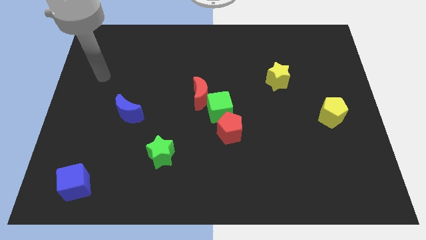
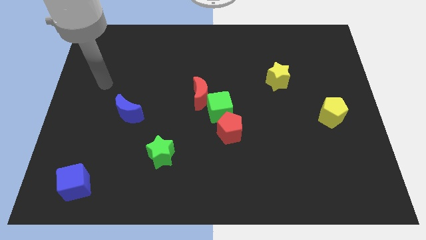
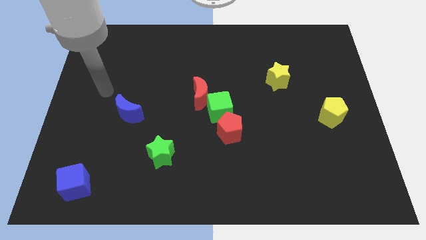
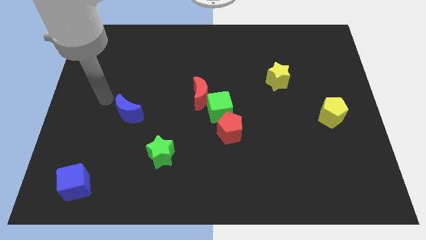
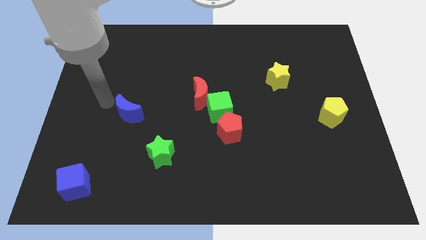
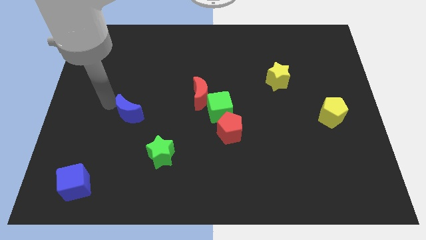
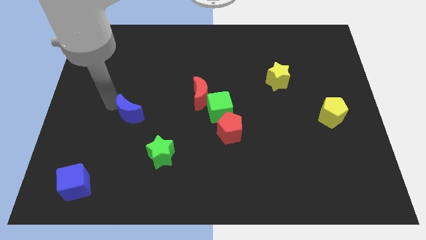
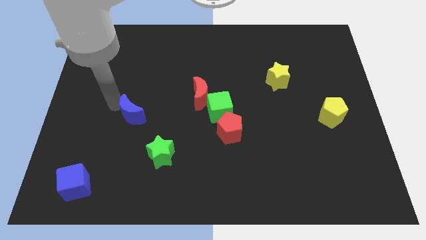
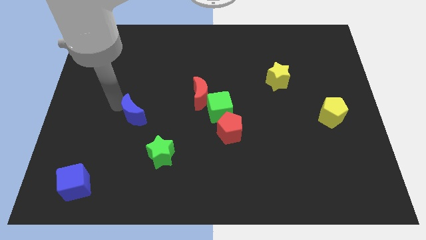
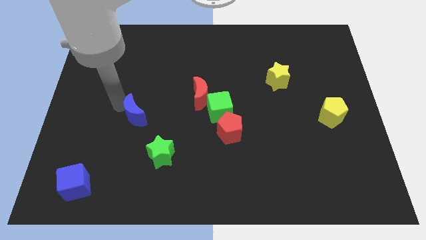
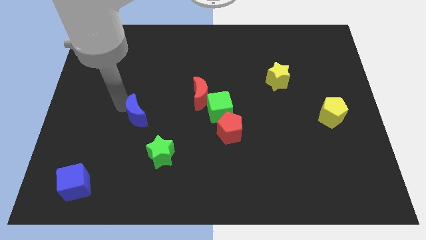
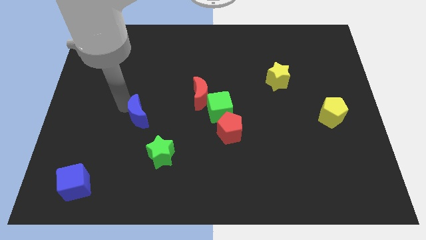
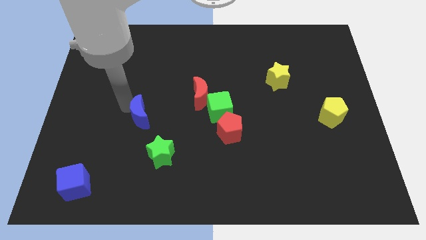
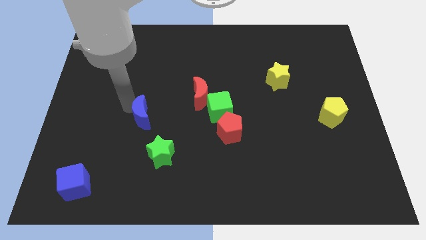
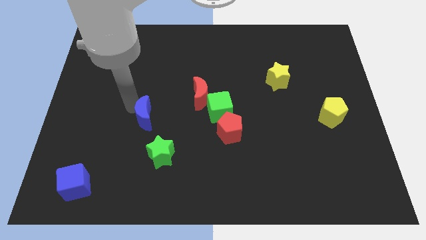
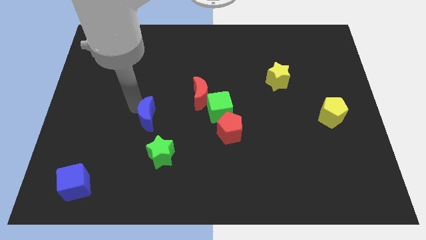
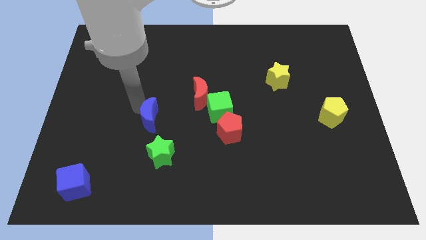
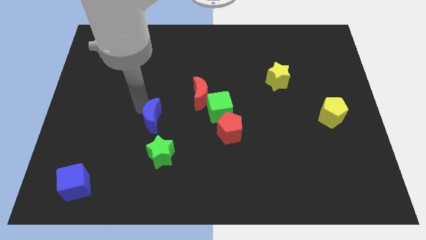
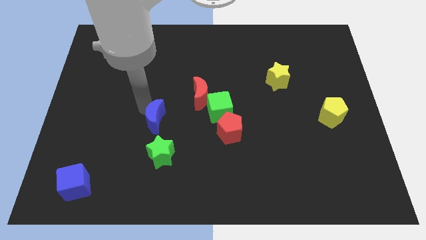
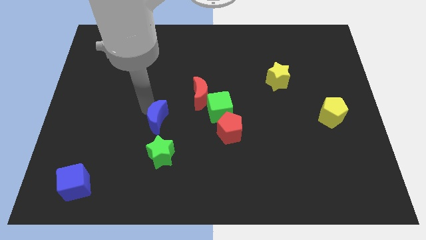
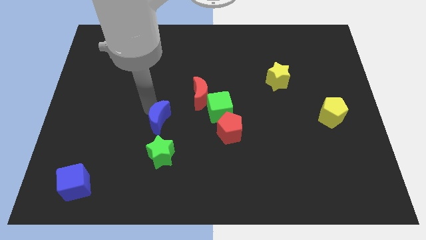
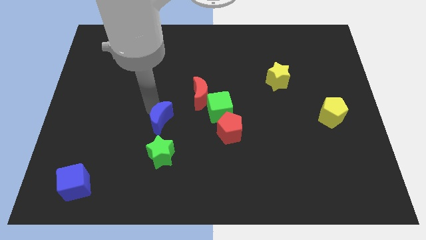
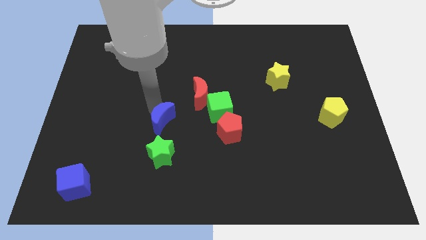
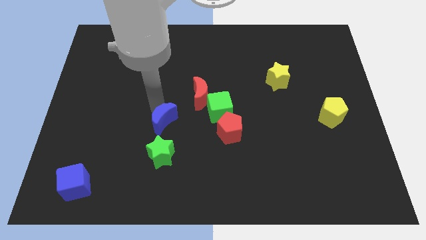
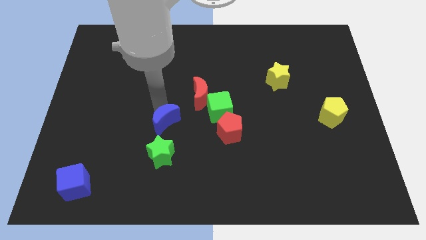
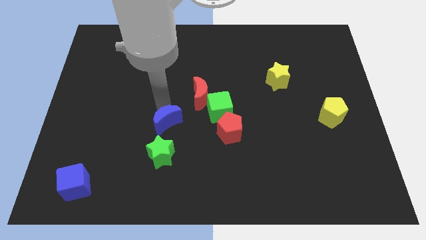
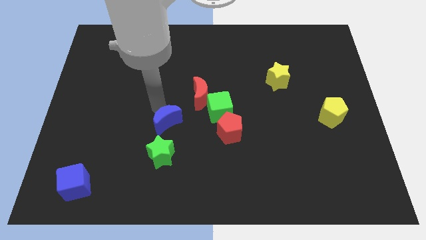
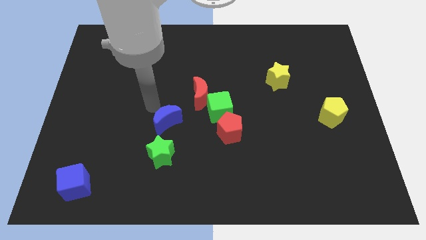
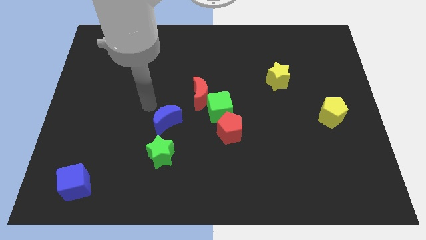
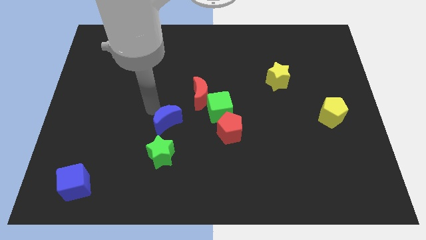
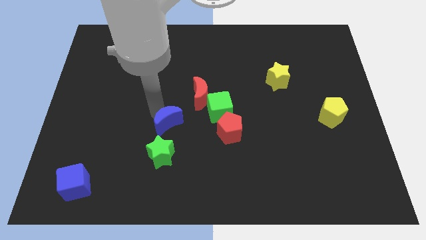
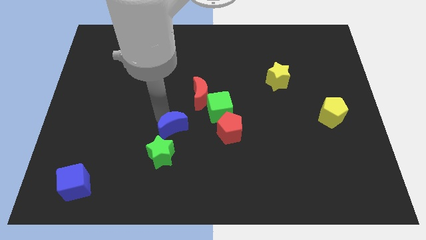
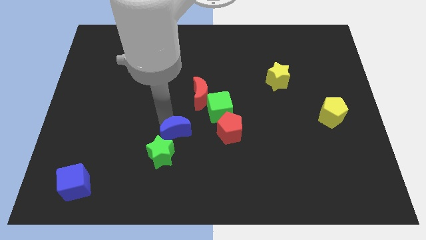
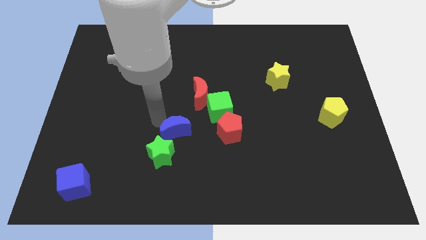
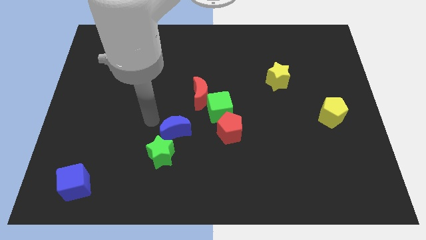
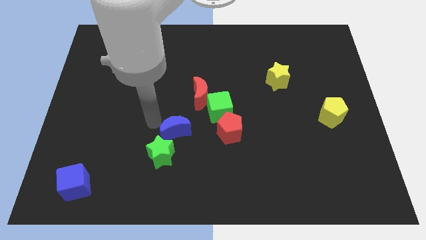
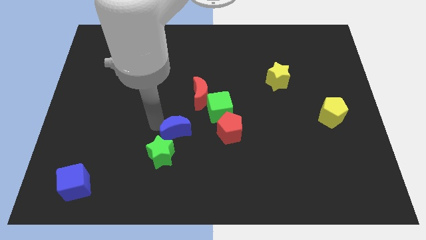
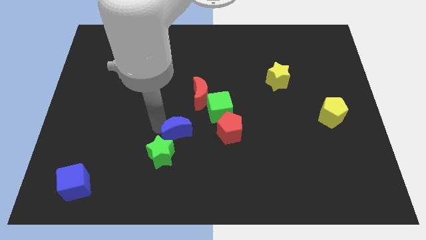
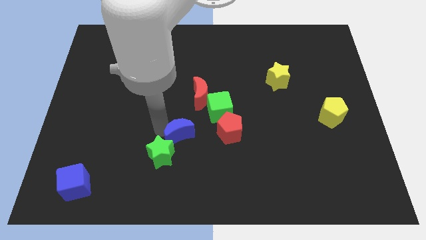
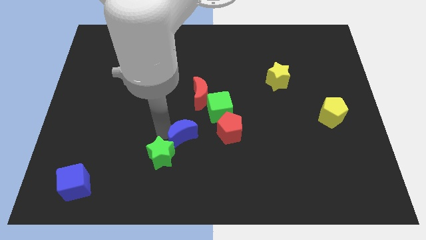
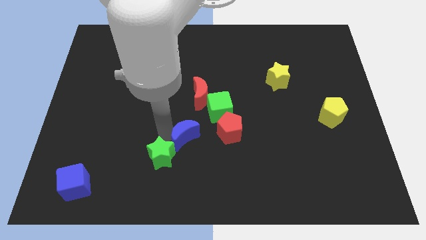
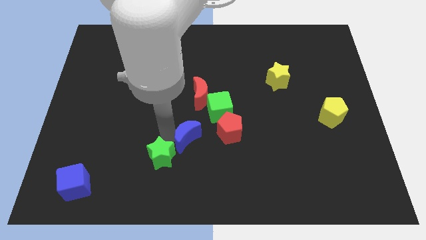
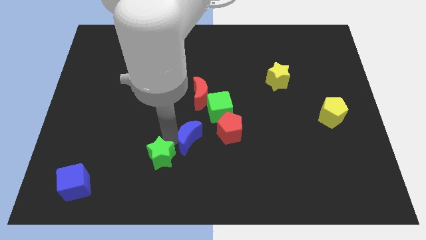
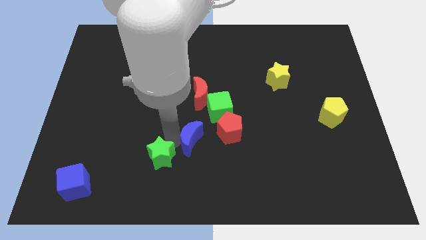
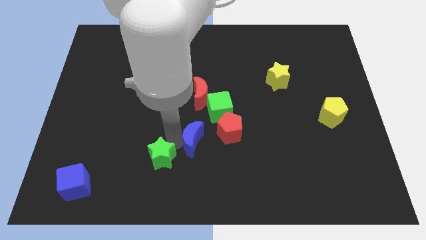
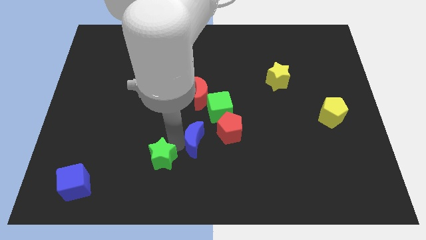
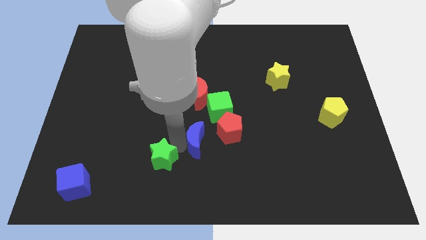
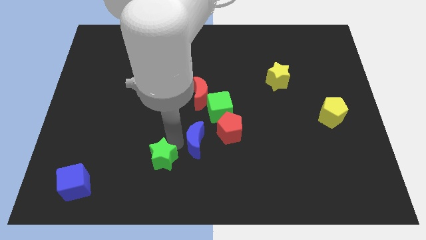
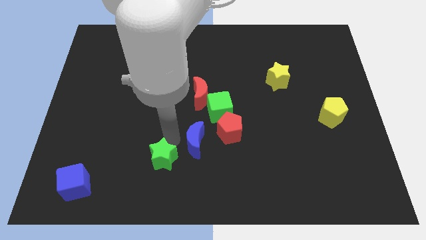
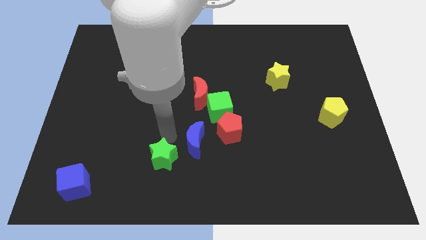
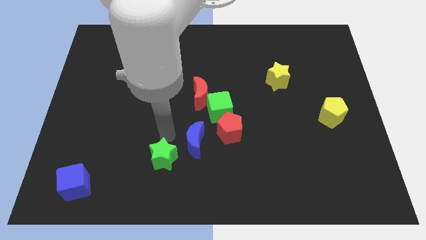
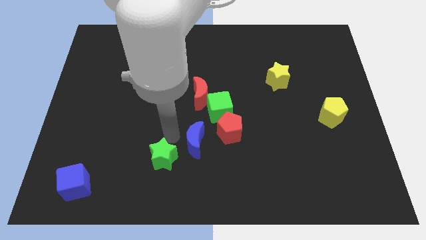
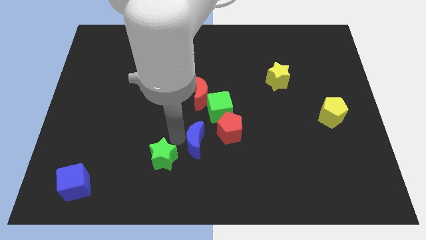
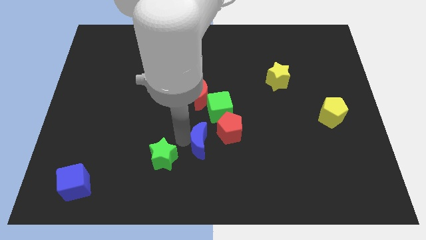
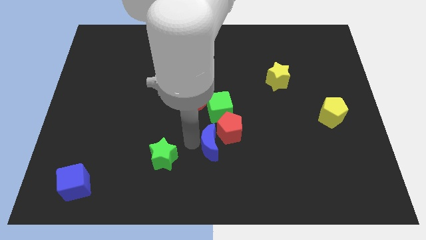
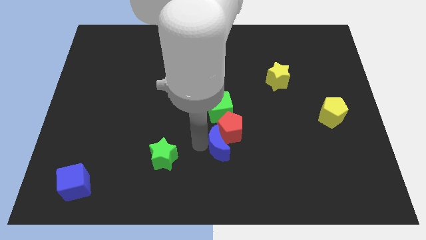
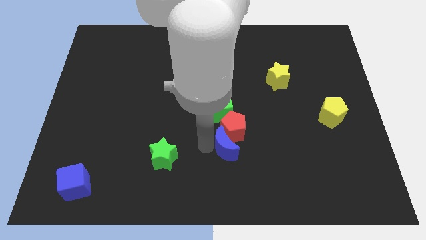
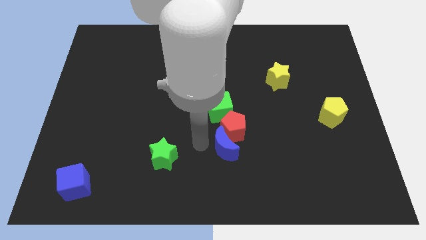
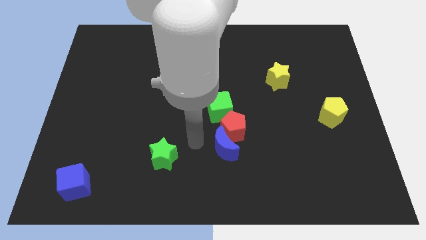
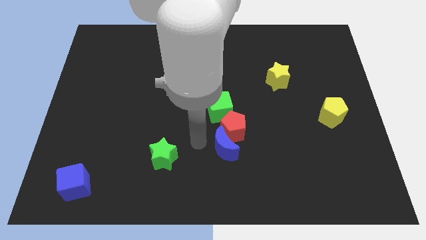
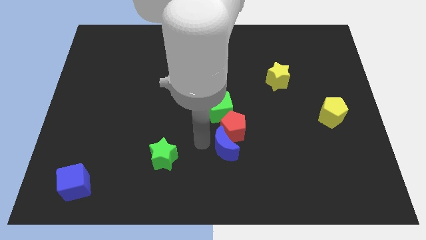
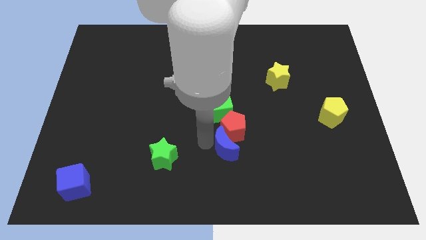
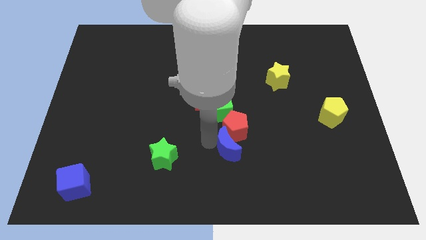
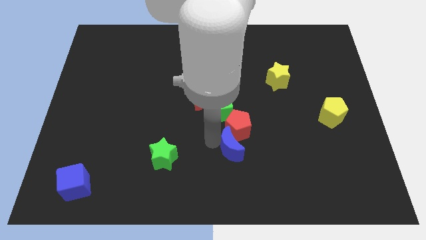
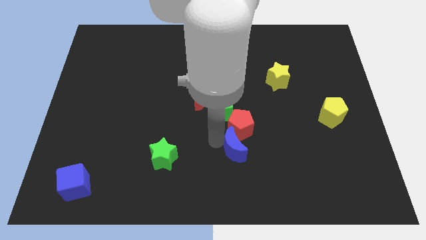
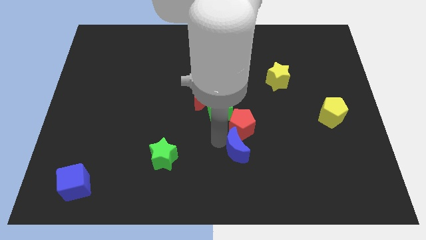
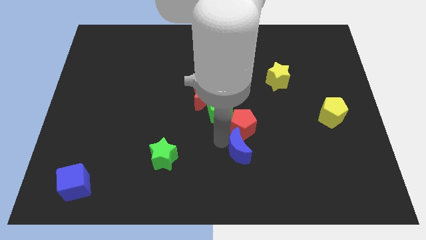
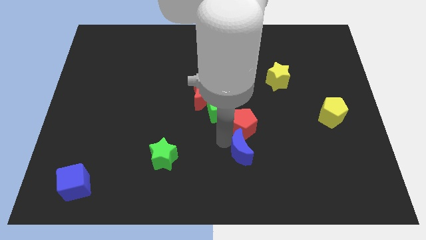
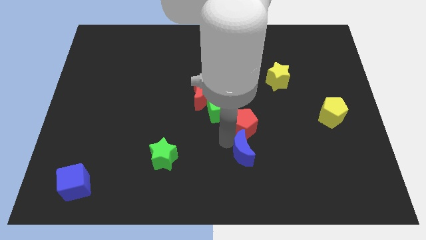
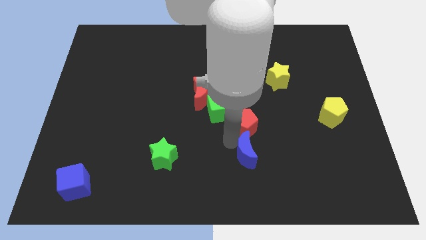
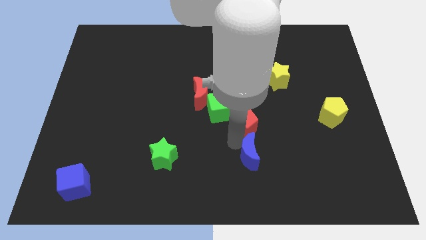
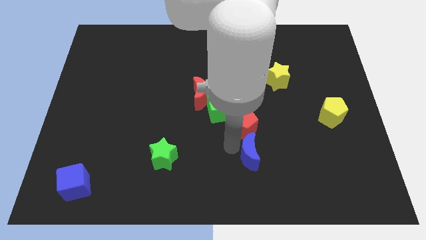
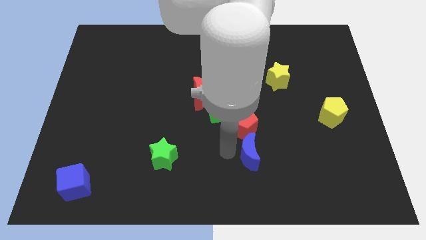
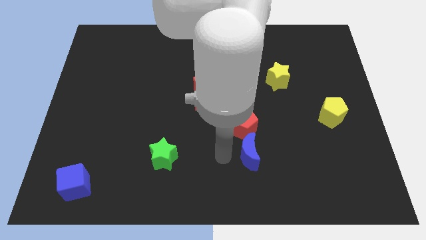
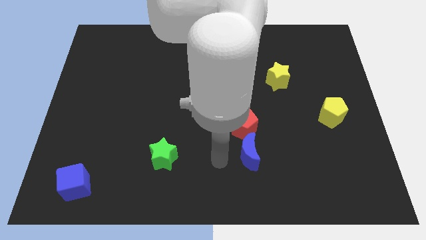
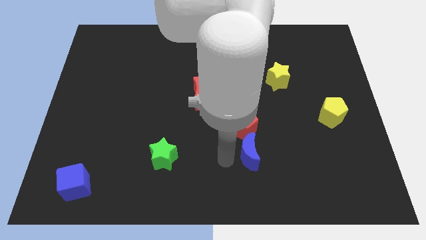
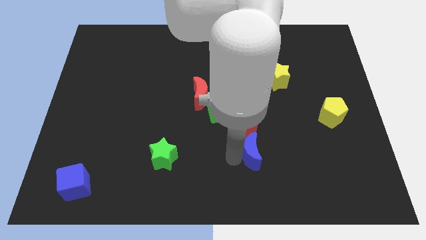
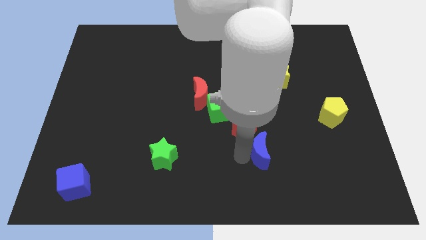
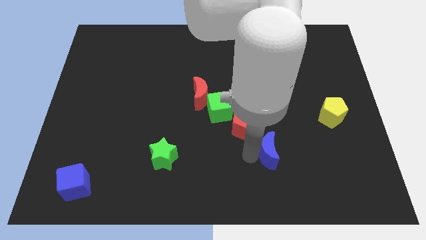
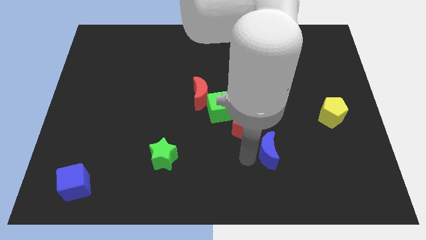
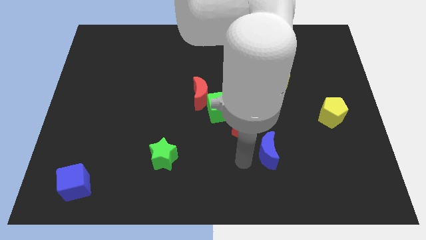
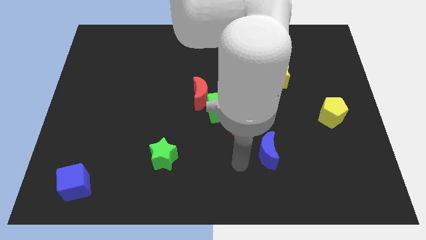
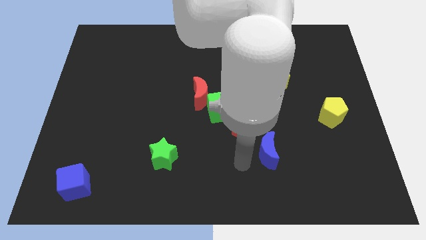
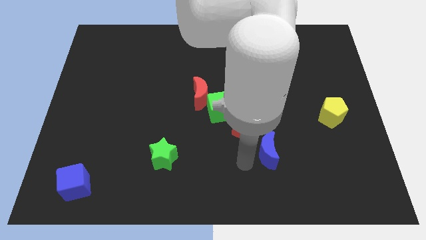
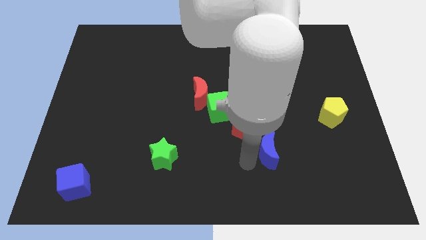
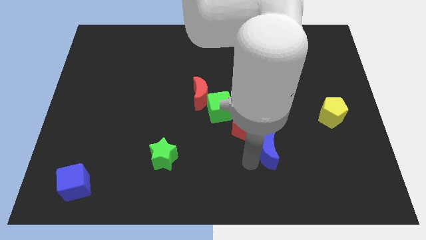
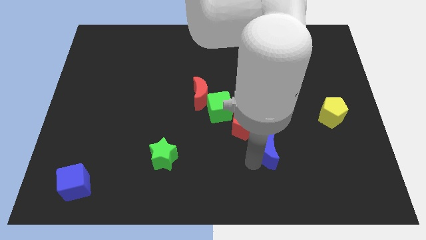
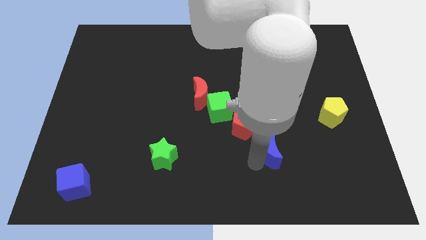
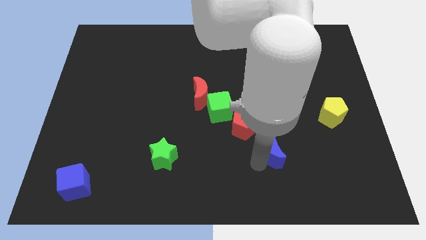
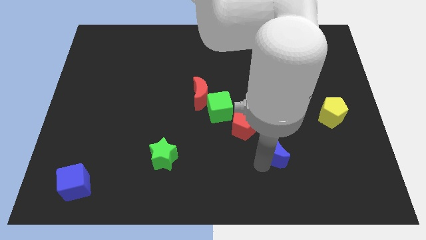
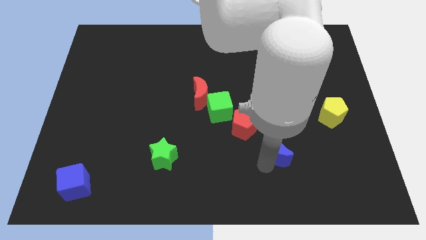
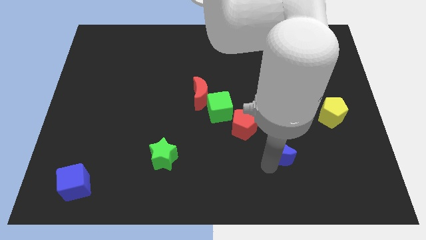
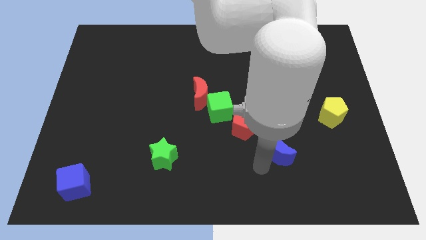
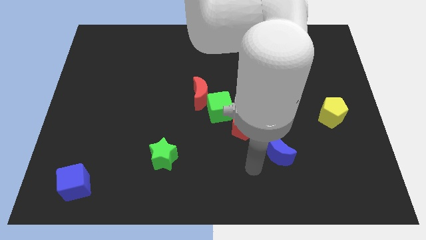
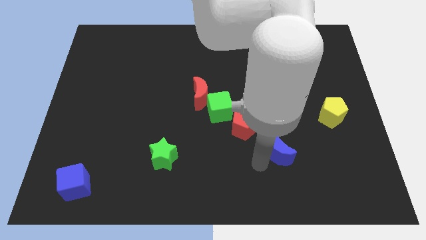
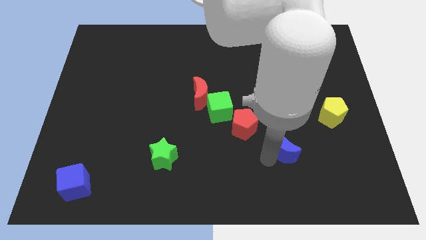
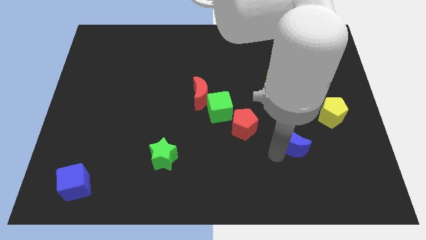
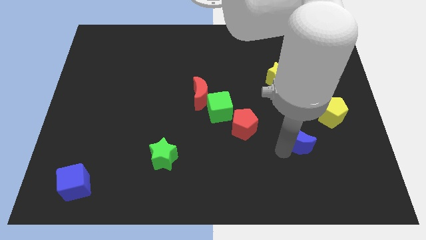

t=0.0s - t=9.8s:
put the blue moon diagonally down and to the left of the yellow pentagon
